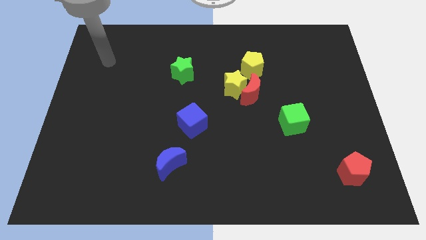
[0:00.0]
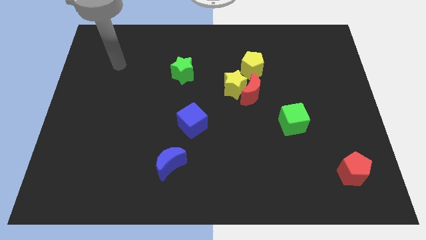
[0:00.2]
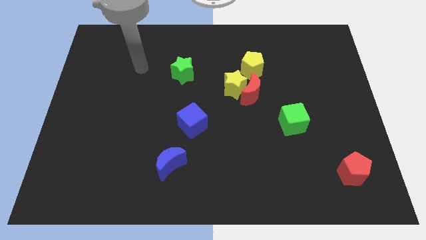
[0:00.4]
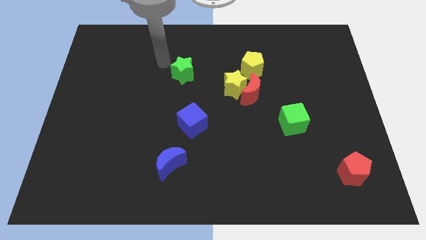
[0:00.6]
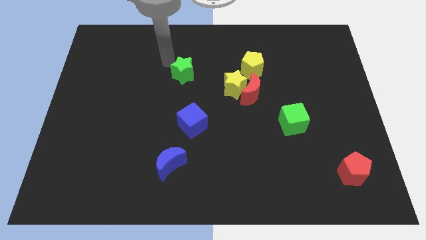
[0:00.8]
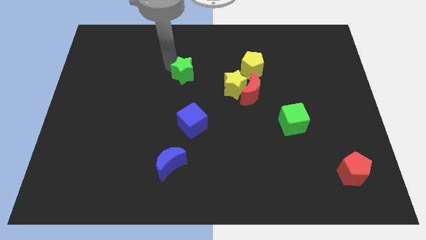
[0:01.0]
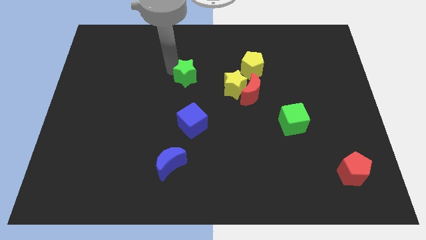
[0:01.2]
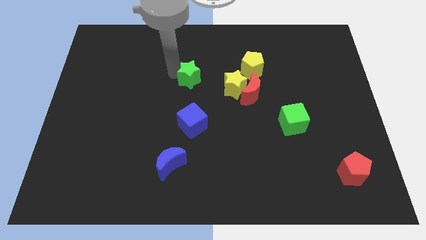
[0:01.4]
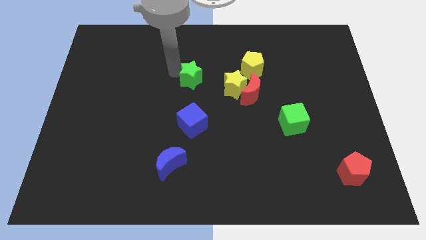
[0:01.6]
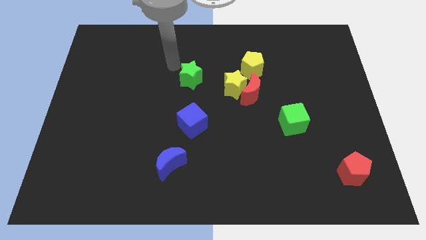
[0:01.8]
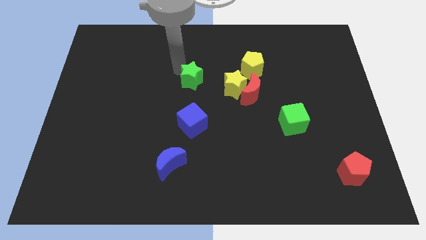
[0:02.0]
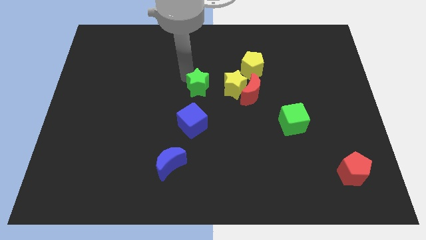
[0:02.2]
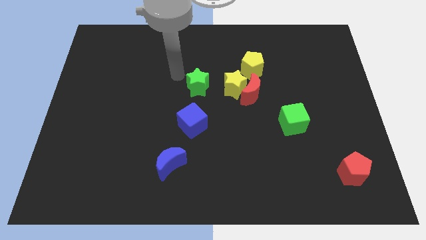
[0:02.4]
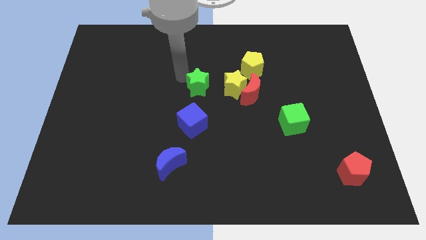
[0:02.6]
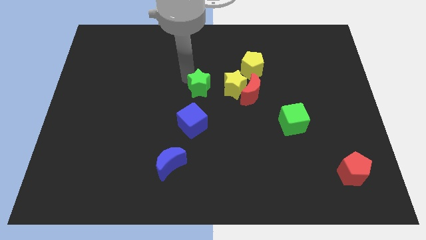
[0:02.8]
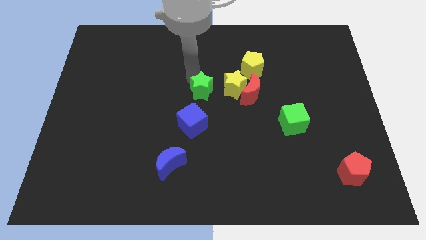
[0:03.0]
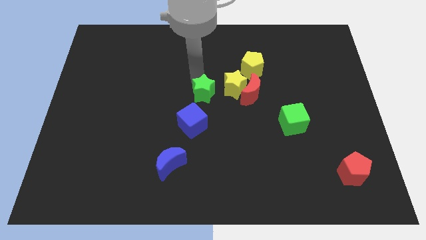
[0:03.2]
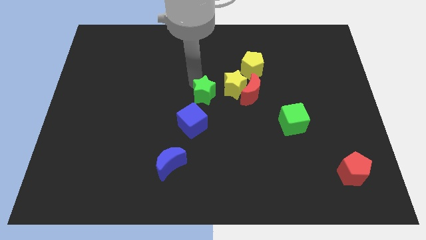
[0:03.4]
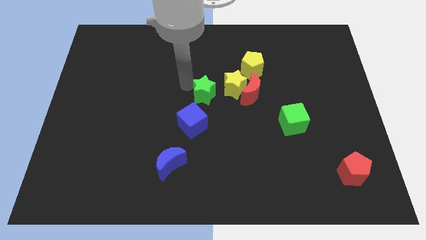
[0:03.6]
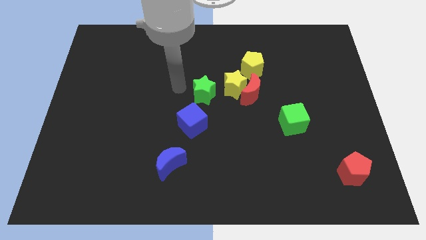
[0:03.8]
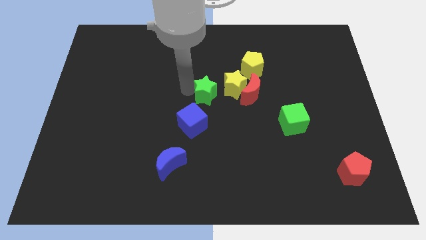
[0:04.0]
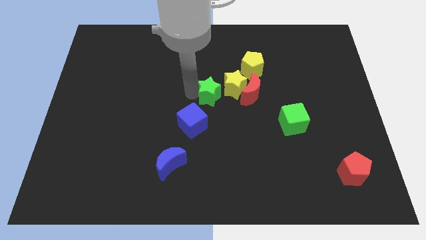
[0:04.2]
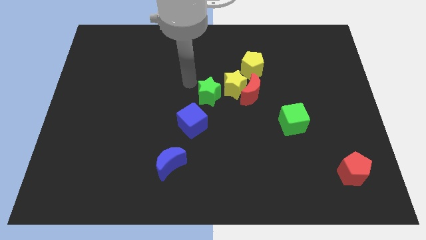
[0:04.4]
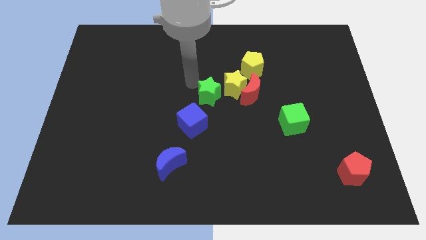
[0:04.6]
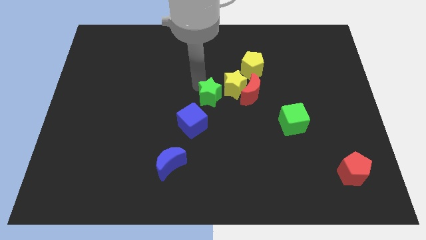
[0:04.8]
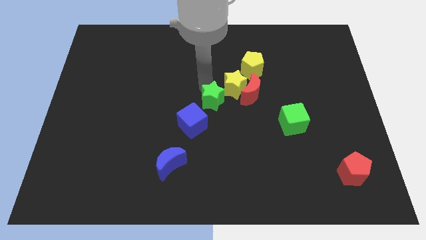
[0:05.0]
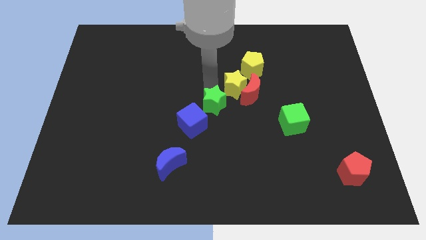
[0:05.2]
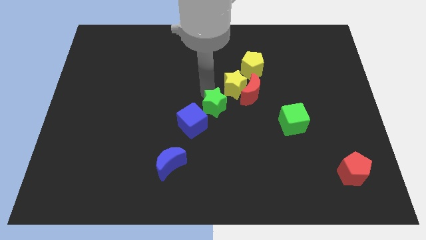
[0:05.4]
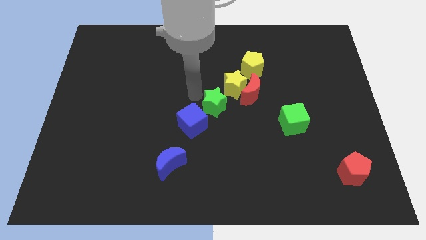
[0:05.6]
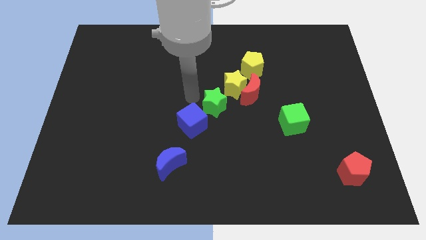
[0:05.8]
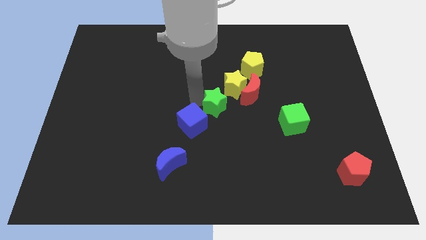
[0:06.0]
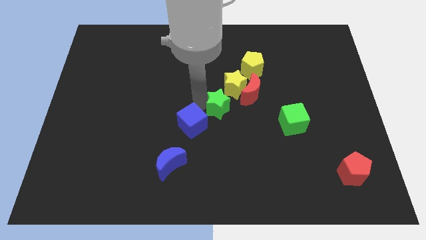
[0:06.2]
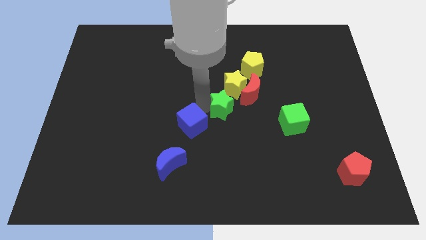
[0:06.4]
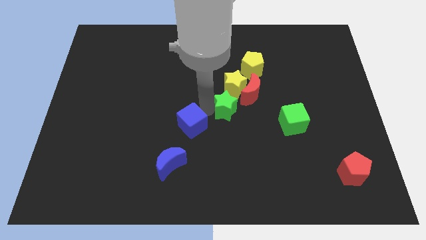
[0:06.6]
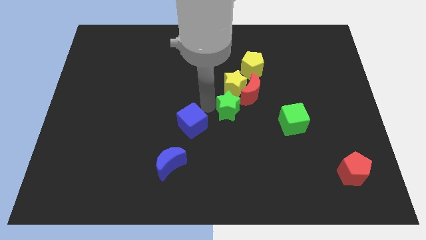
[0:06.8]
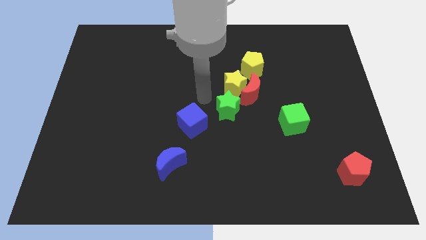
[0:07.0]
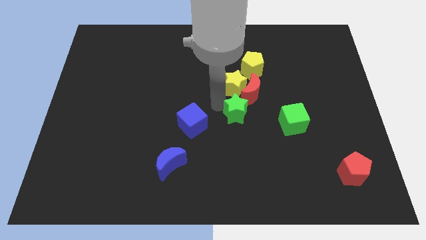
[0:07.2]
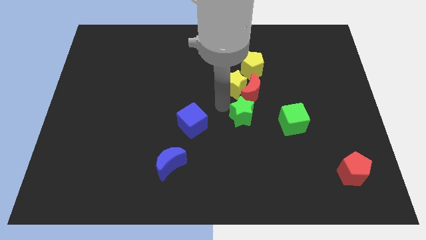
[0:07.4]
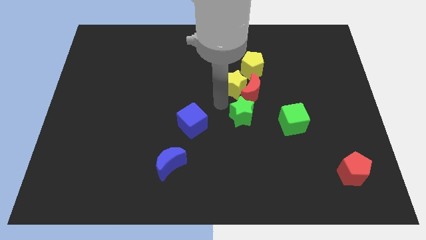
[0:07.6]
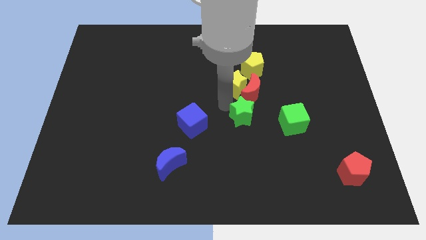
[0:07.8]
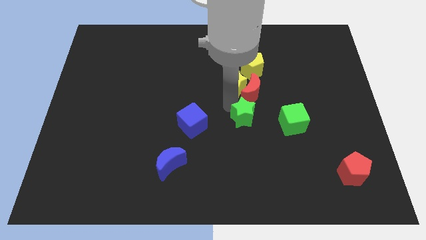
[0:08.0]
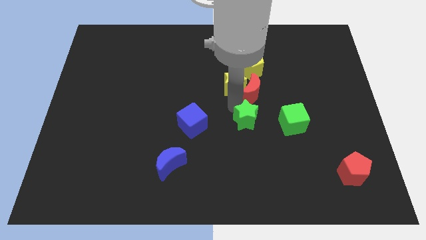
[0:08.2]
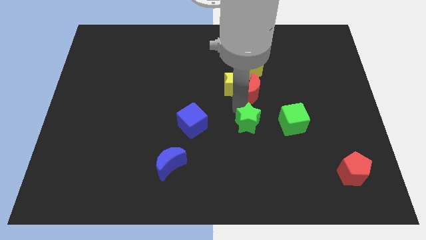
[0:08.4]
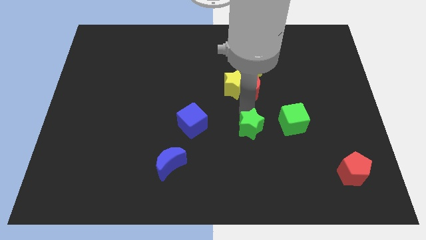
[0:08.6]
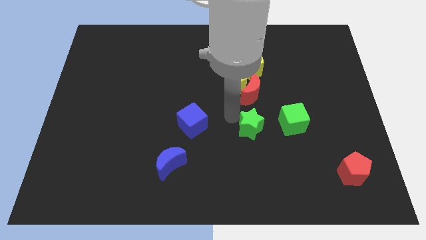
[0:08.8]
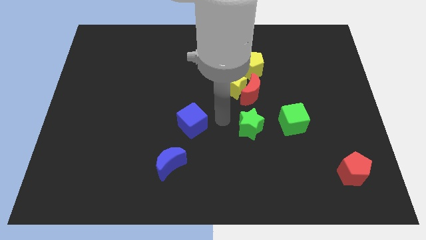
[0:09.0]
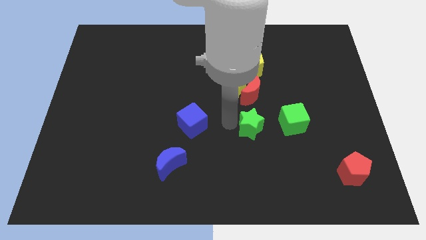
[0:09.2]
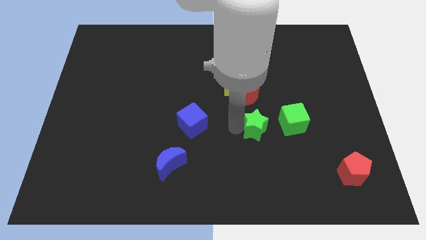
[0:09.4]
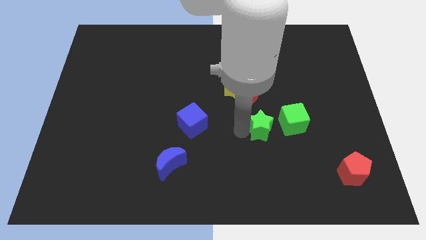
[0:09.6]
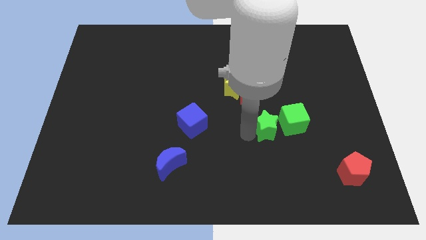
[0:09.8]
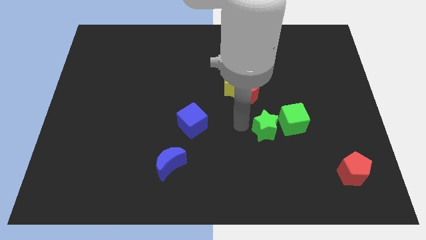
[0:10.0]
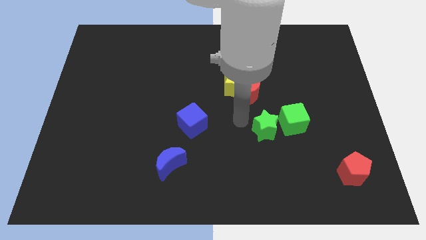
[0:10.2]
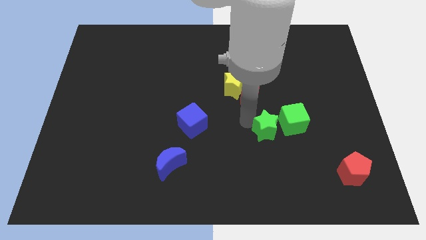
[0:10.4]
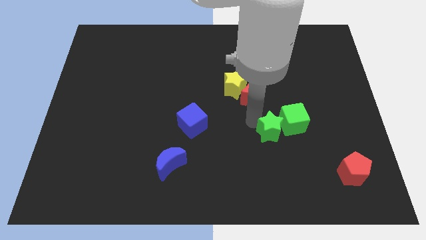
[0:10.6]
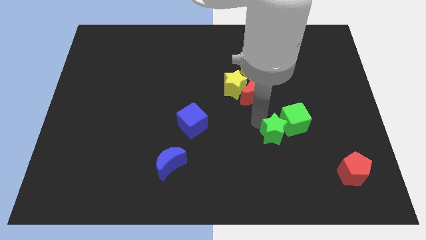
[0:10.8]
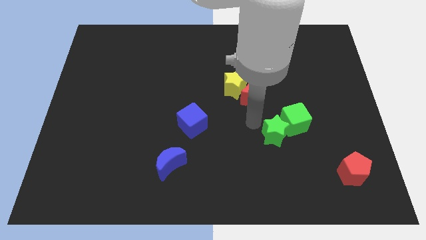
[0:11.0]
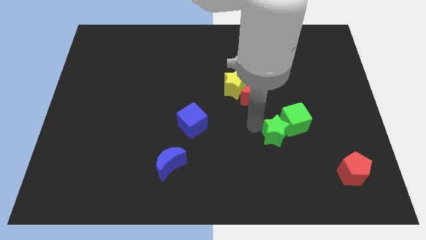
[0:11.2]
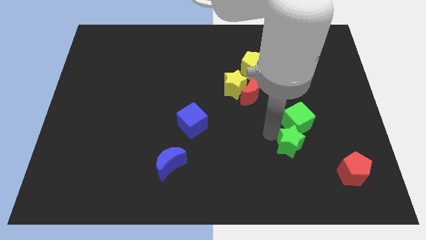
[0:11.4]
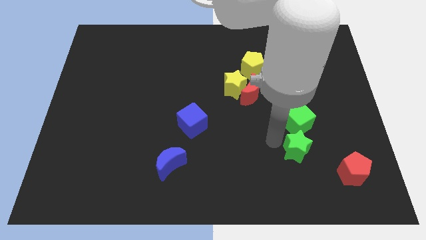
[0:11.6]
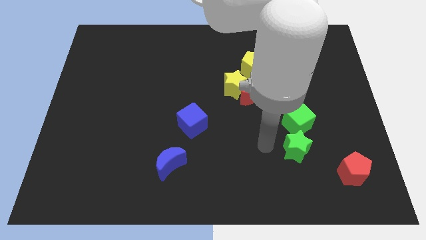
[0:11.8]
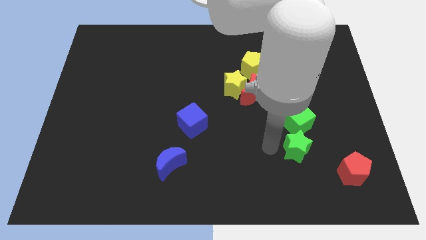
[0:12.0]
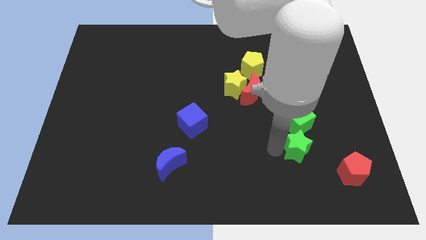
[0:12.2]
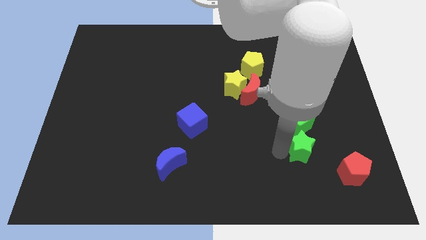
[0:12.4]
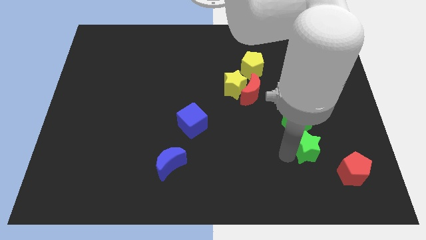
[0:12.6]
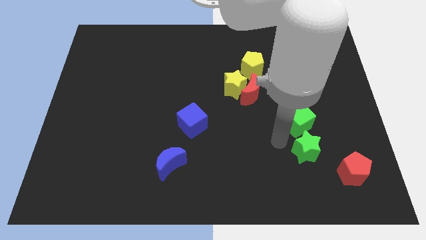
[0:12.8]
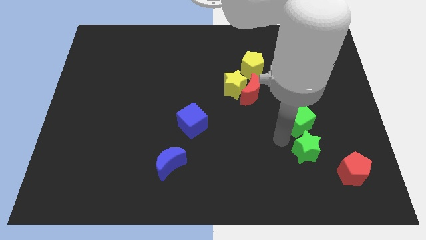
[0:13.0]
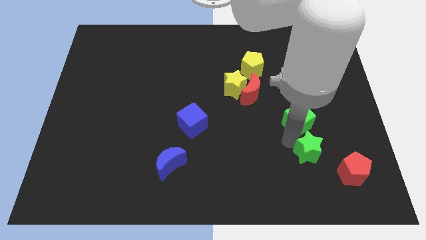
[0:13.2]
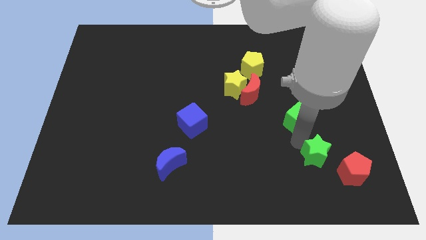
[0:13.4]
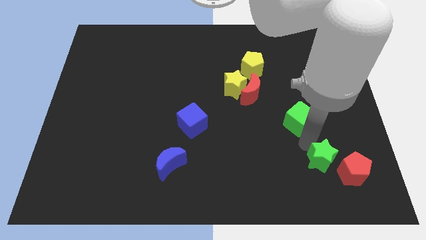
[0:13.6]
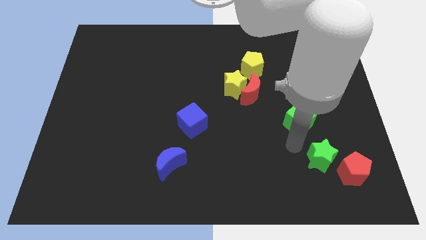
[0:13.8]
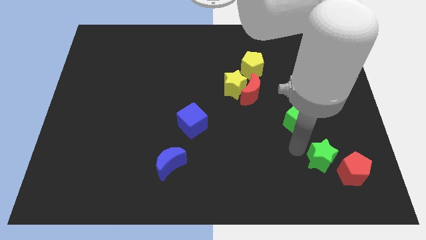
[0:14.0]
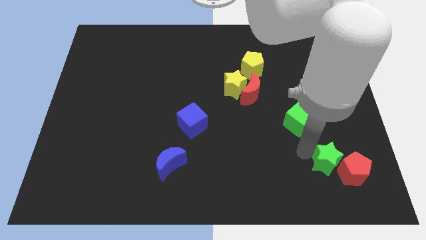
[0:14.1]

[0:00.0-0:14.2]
move the green star towards the red pentagon
